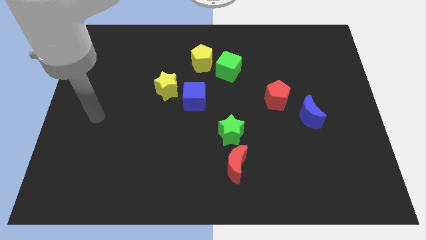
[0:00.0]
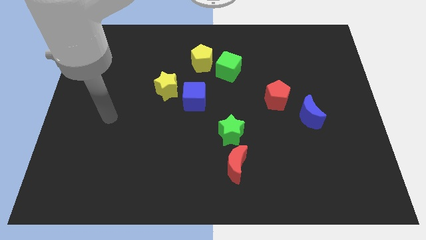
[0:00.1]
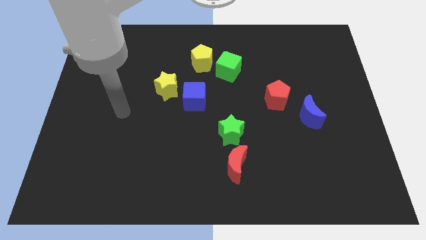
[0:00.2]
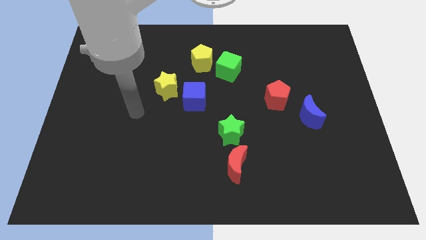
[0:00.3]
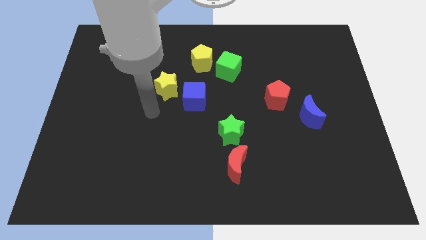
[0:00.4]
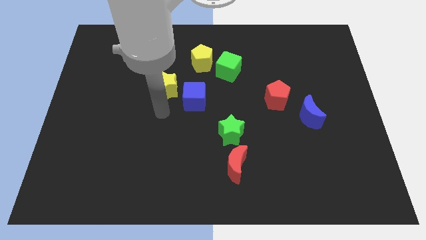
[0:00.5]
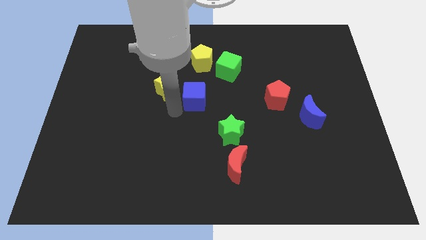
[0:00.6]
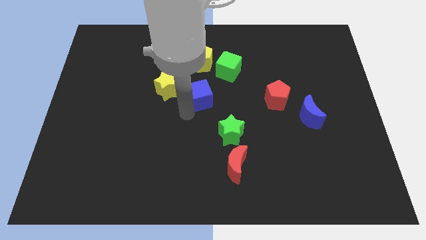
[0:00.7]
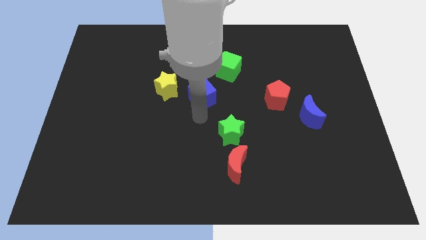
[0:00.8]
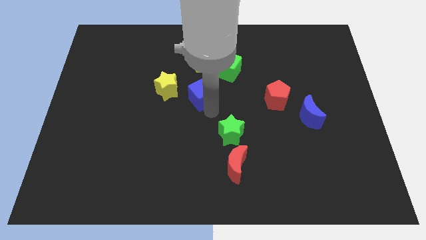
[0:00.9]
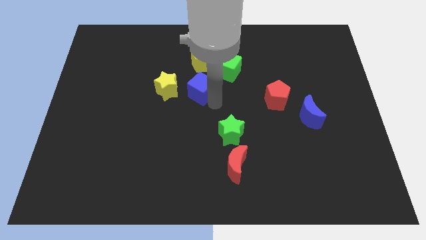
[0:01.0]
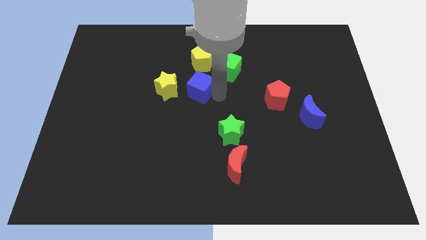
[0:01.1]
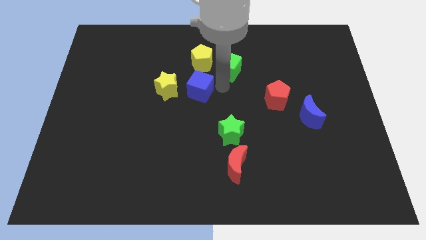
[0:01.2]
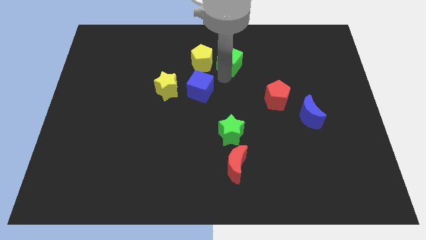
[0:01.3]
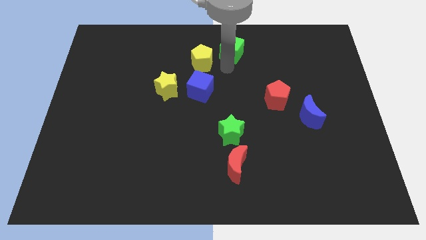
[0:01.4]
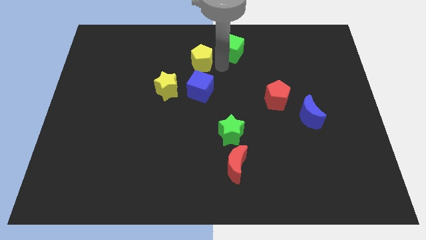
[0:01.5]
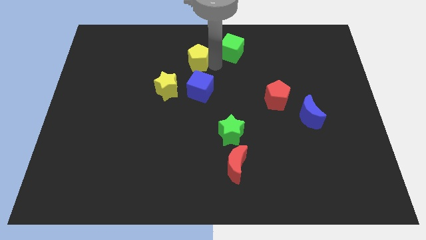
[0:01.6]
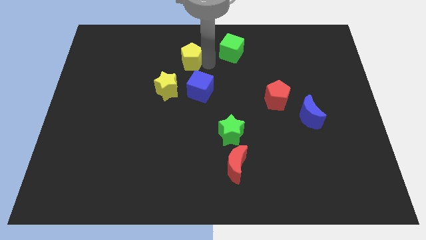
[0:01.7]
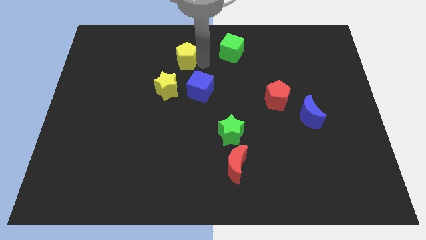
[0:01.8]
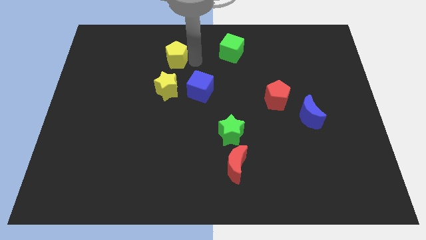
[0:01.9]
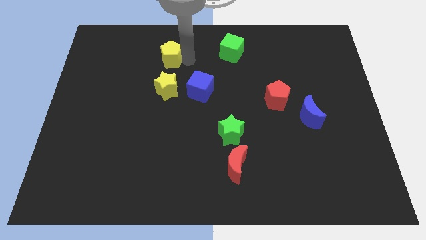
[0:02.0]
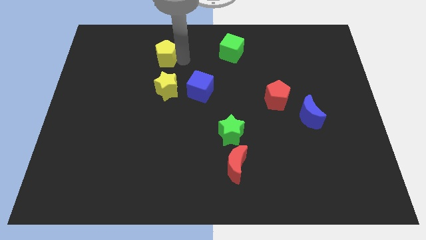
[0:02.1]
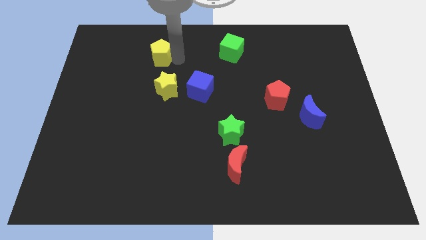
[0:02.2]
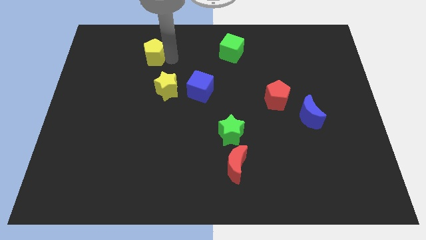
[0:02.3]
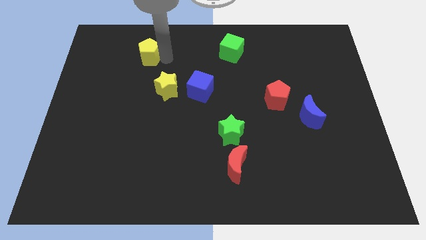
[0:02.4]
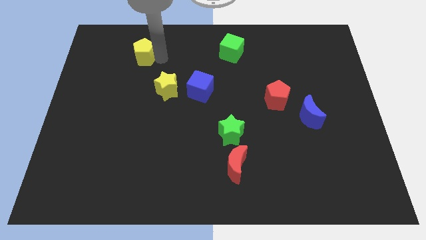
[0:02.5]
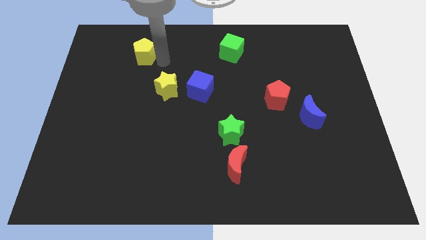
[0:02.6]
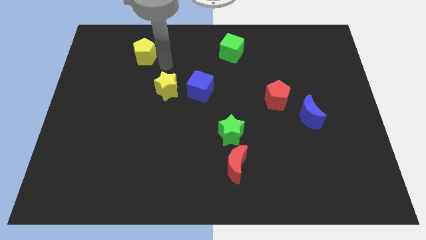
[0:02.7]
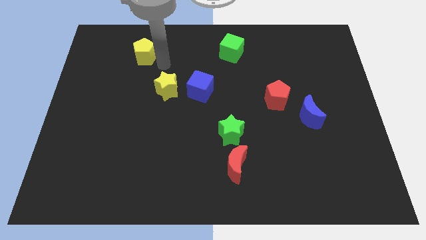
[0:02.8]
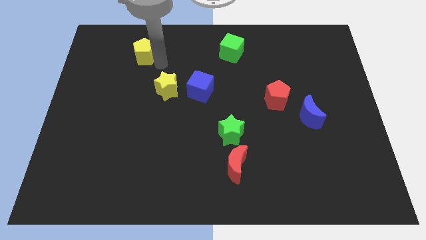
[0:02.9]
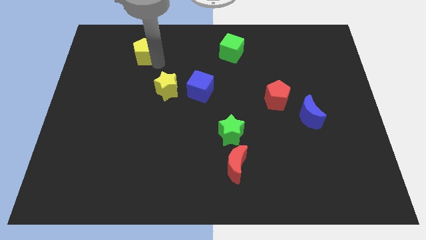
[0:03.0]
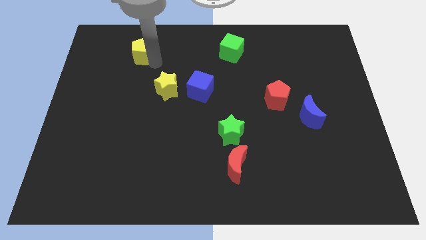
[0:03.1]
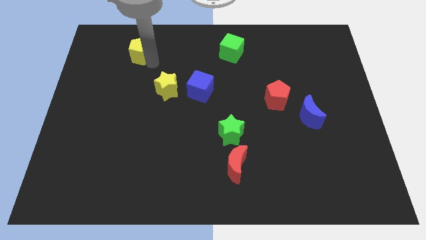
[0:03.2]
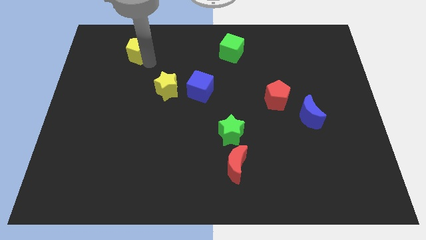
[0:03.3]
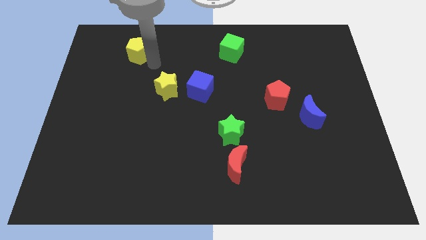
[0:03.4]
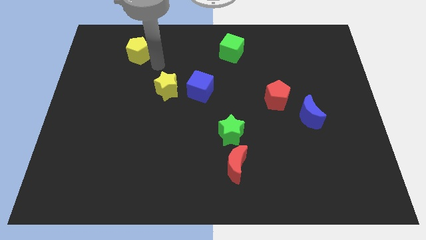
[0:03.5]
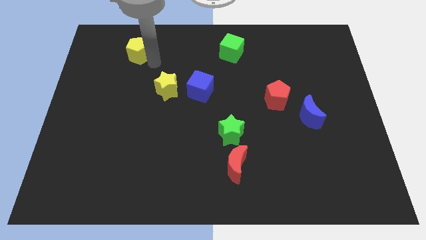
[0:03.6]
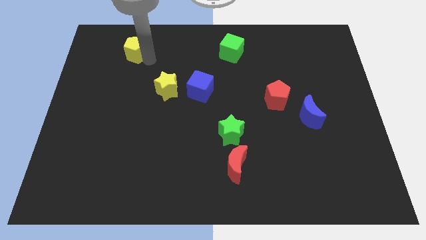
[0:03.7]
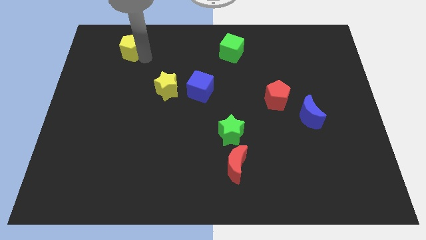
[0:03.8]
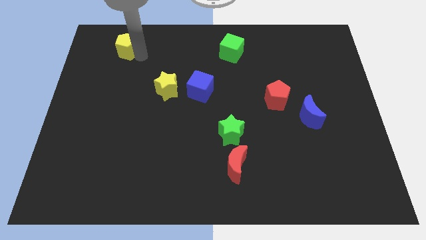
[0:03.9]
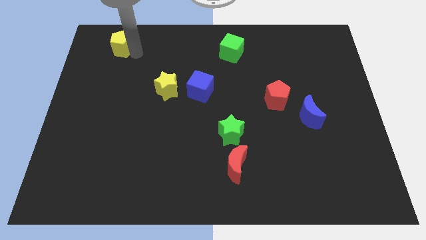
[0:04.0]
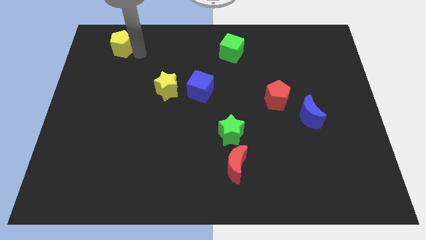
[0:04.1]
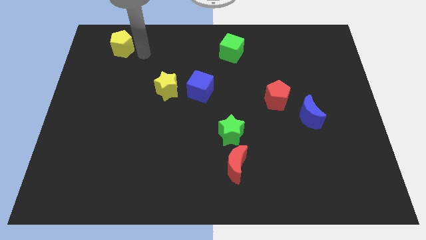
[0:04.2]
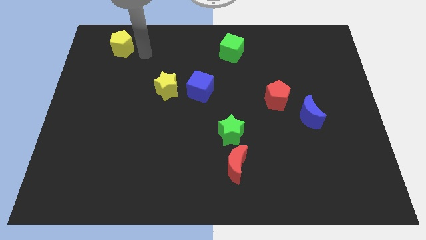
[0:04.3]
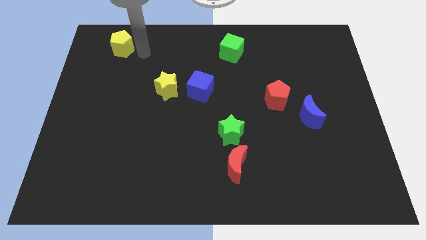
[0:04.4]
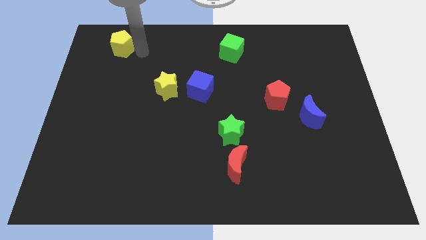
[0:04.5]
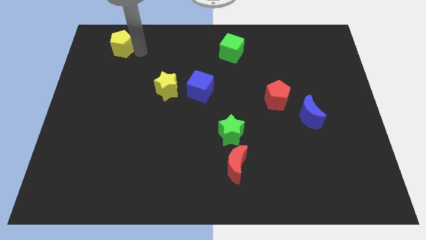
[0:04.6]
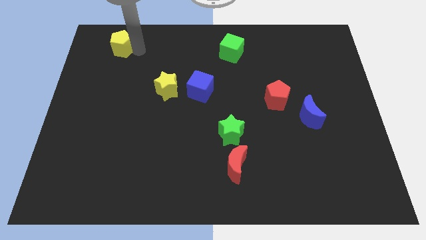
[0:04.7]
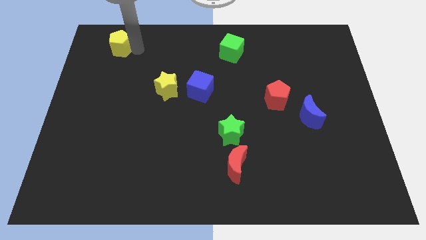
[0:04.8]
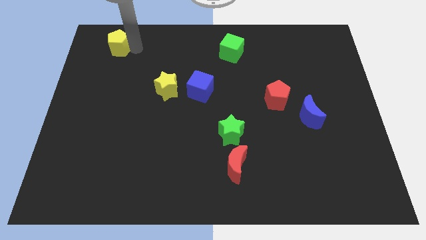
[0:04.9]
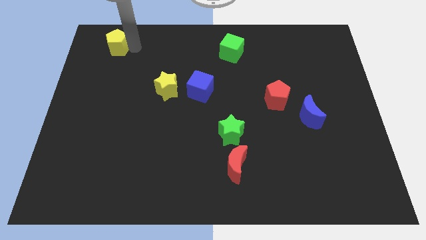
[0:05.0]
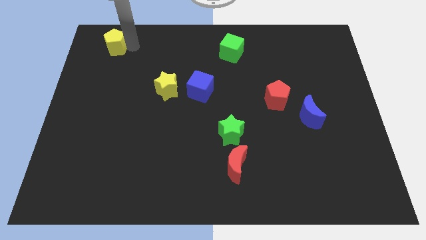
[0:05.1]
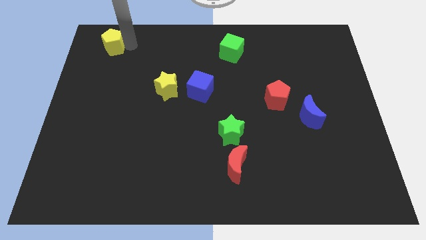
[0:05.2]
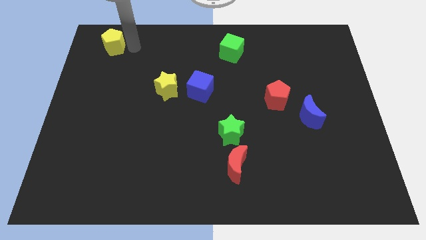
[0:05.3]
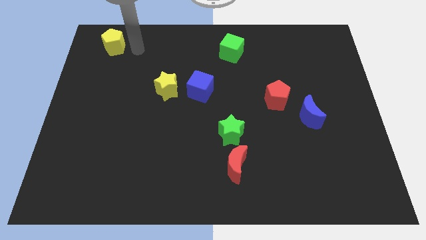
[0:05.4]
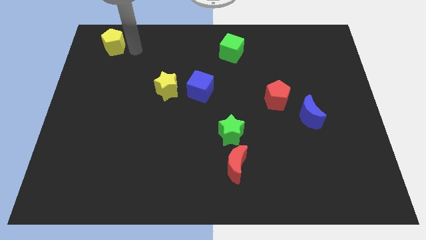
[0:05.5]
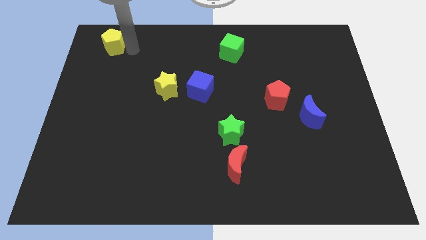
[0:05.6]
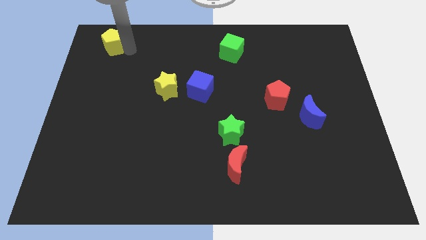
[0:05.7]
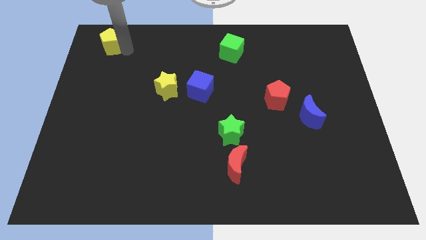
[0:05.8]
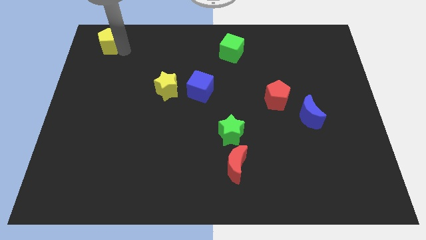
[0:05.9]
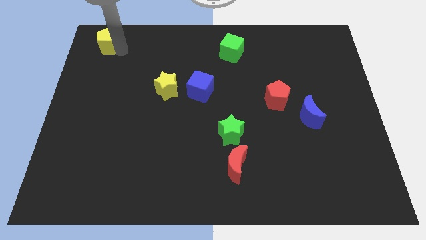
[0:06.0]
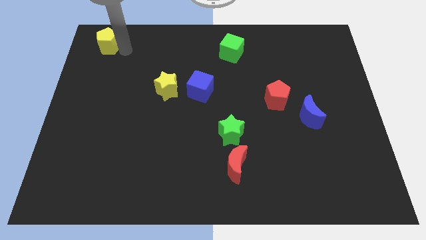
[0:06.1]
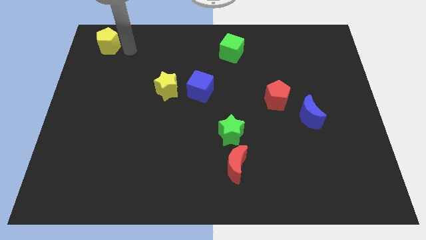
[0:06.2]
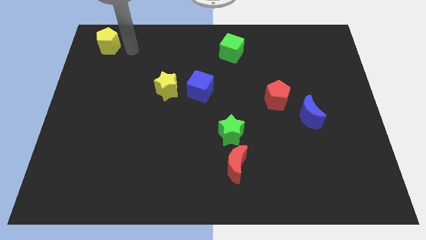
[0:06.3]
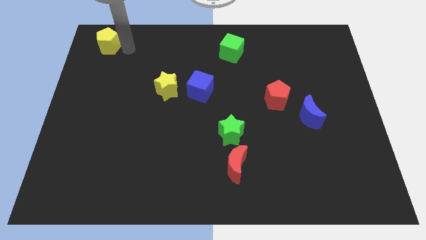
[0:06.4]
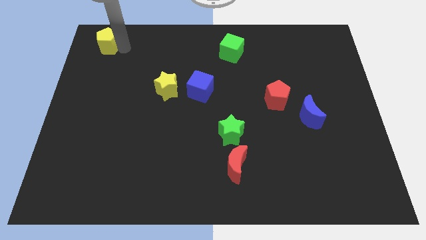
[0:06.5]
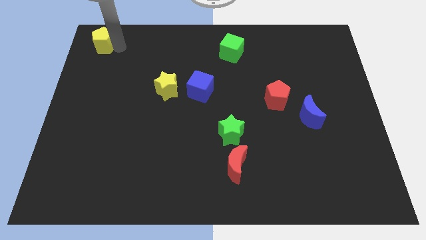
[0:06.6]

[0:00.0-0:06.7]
slide the yellow pentagon to the top left of the board

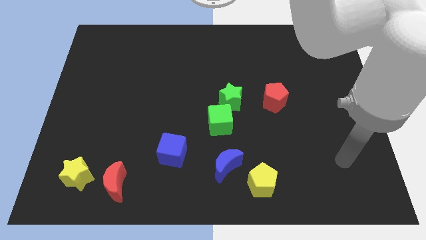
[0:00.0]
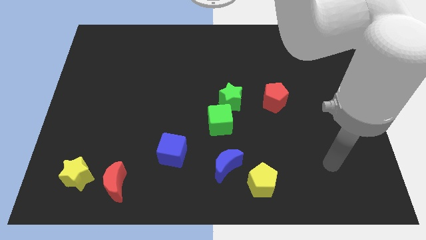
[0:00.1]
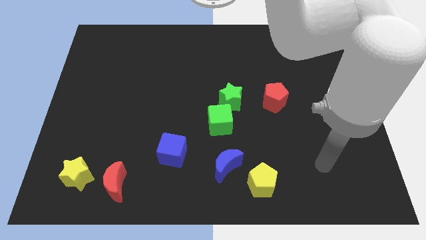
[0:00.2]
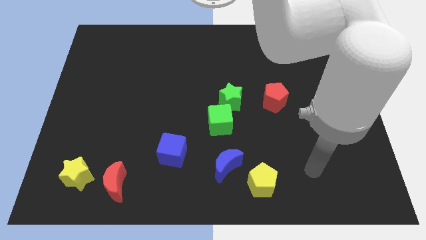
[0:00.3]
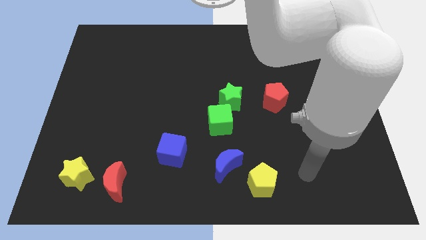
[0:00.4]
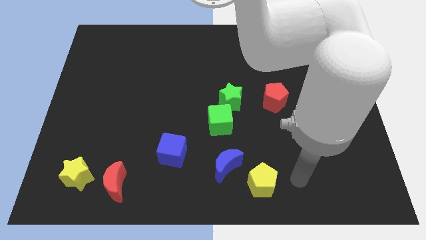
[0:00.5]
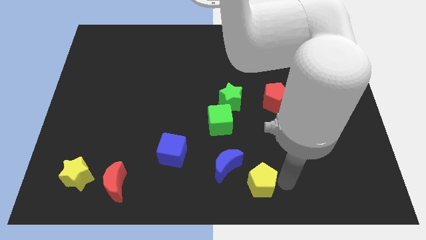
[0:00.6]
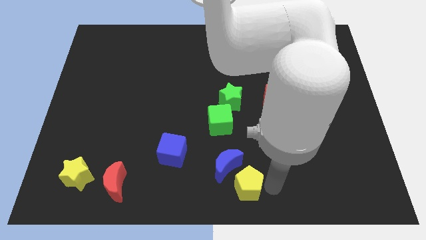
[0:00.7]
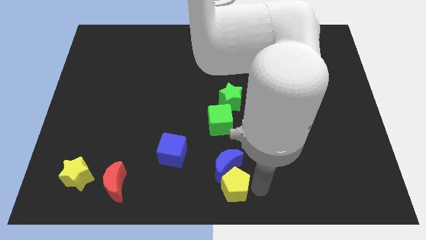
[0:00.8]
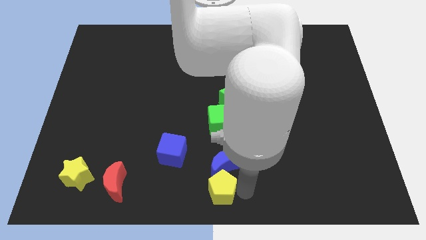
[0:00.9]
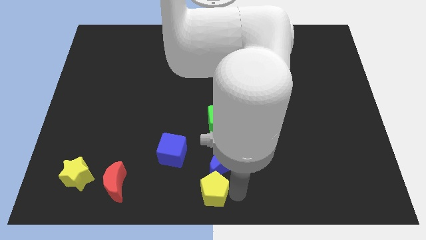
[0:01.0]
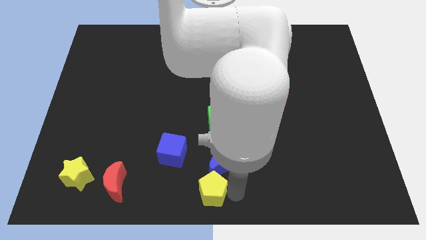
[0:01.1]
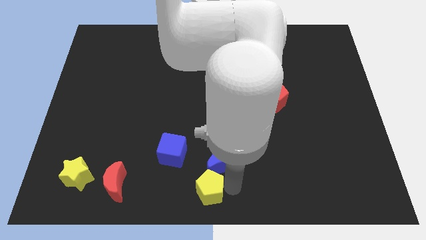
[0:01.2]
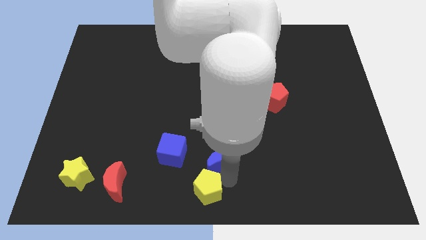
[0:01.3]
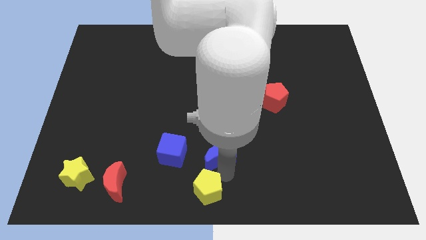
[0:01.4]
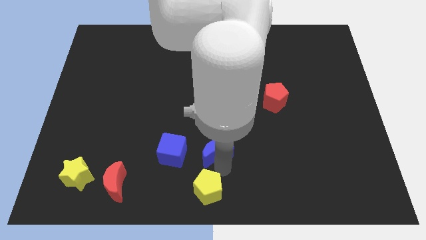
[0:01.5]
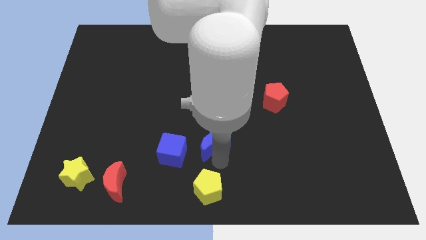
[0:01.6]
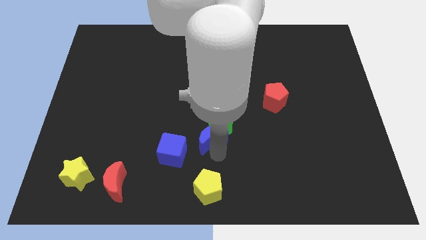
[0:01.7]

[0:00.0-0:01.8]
move the blue moon to the center of the board
